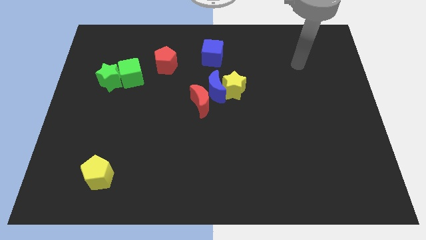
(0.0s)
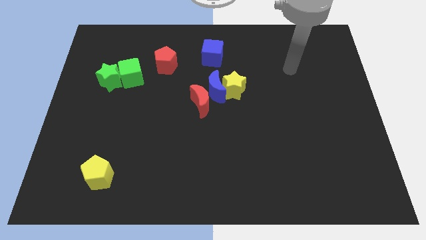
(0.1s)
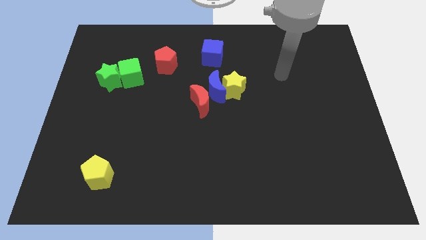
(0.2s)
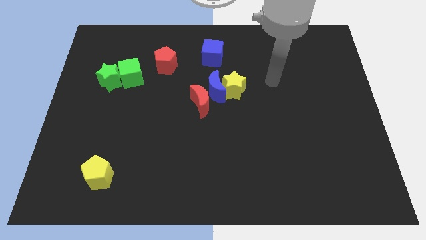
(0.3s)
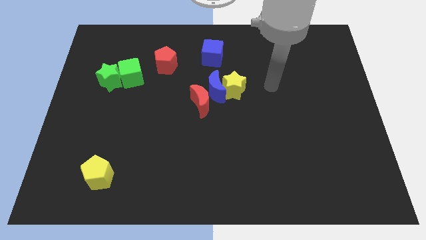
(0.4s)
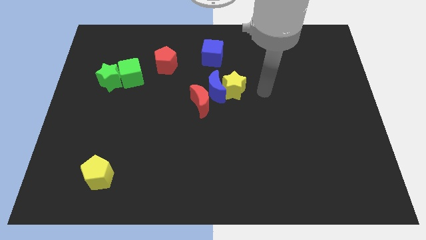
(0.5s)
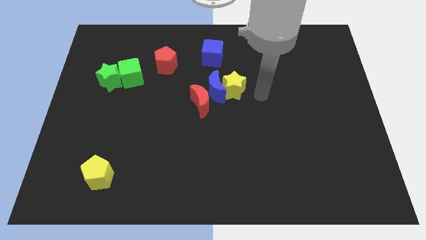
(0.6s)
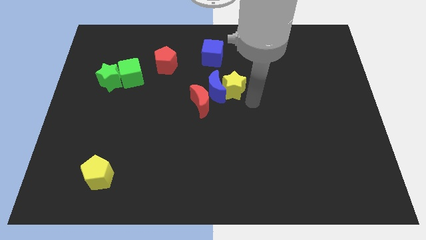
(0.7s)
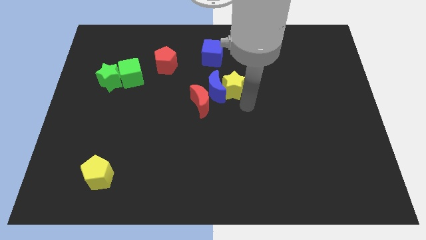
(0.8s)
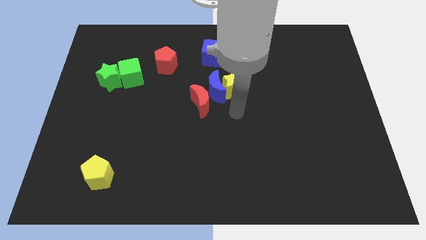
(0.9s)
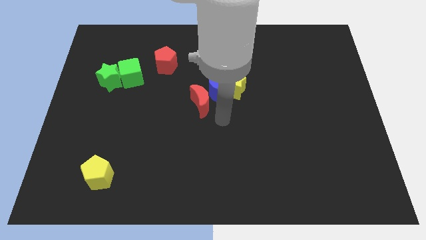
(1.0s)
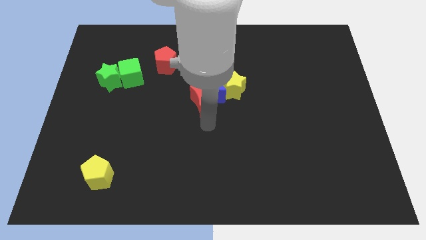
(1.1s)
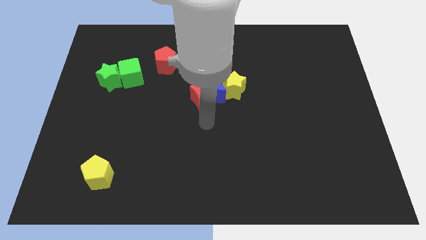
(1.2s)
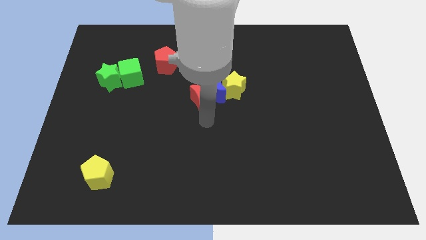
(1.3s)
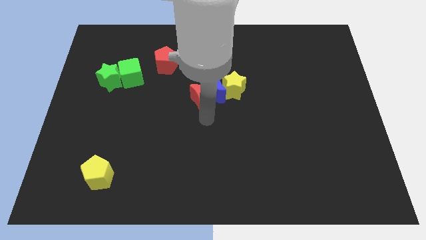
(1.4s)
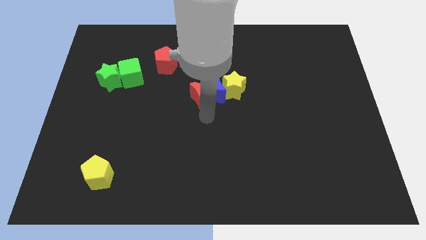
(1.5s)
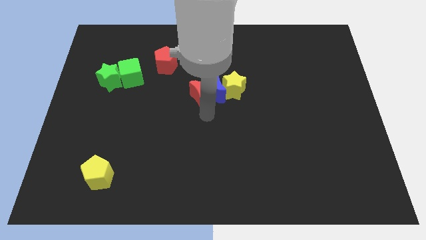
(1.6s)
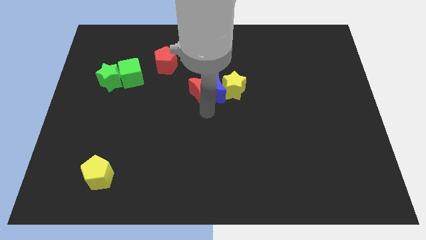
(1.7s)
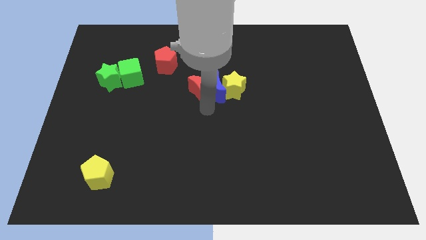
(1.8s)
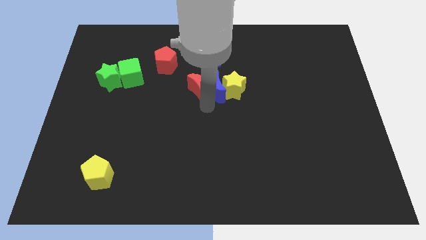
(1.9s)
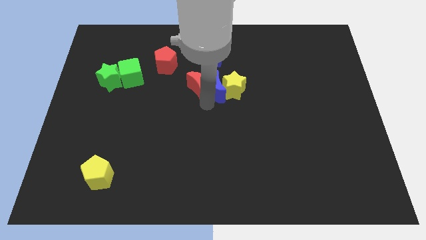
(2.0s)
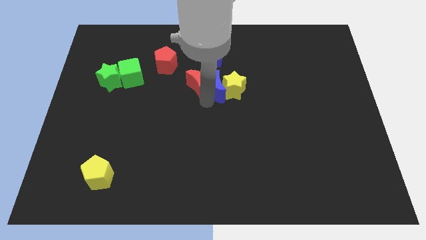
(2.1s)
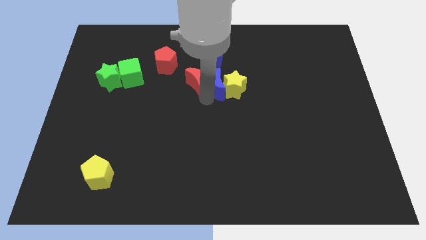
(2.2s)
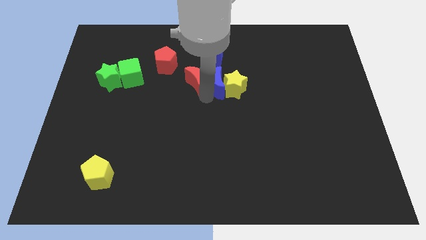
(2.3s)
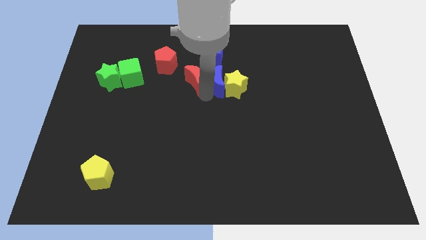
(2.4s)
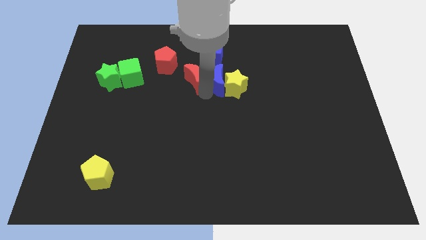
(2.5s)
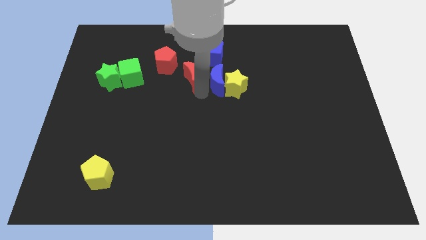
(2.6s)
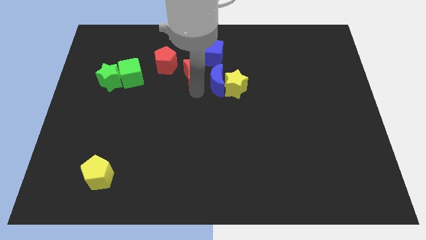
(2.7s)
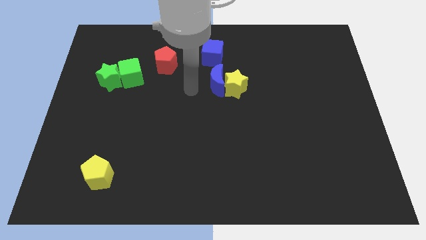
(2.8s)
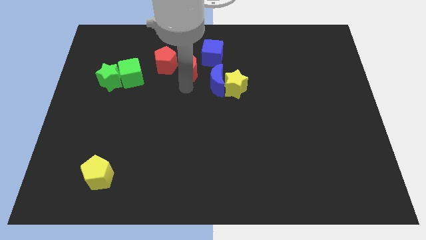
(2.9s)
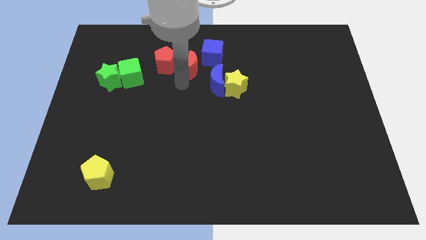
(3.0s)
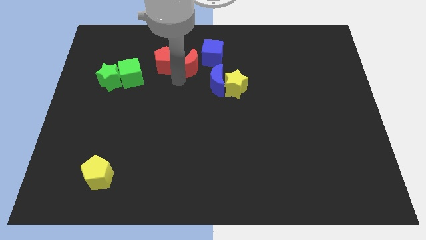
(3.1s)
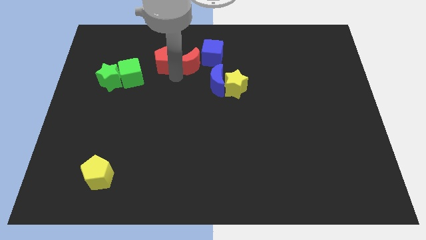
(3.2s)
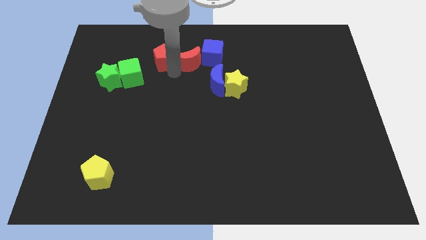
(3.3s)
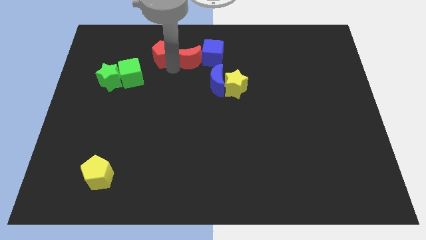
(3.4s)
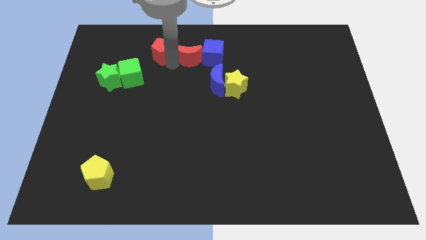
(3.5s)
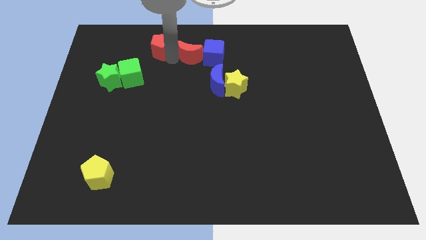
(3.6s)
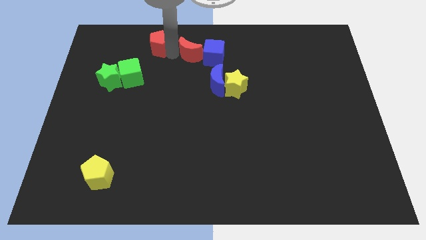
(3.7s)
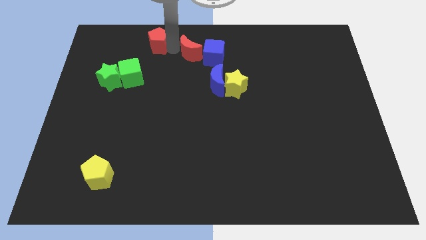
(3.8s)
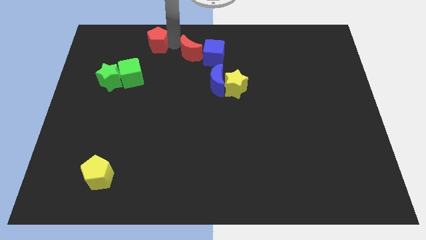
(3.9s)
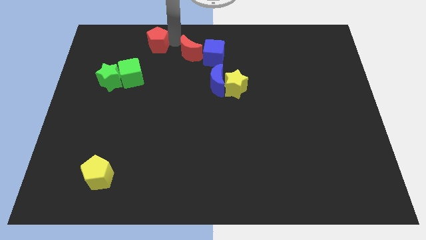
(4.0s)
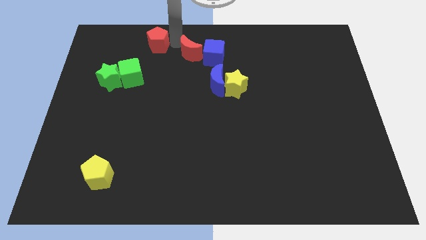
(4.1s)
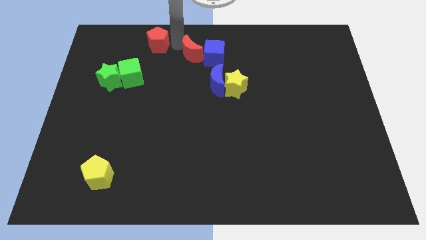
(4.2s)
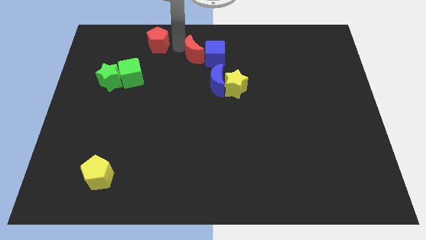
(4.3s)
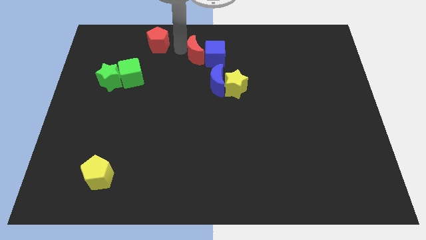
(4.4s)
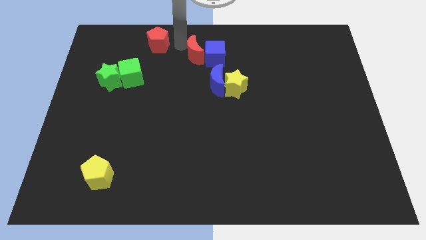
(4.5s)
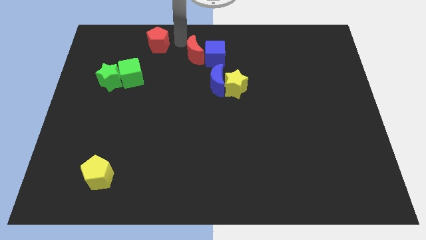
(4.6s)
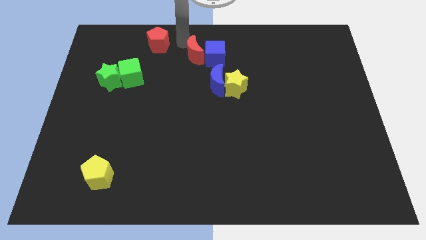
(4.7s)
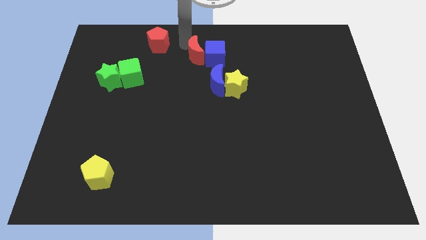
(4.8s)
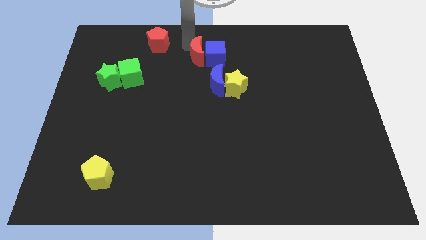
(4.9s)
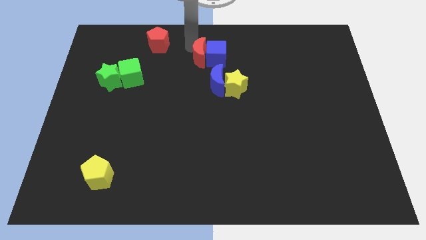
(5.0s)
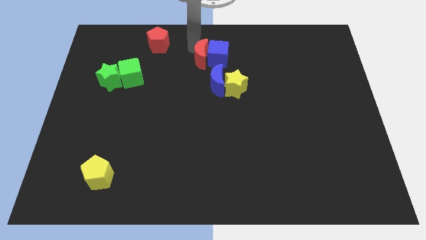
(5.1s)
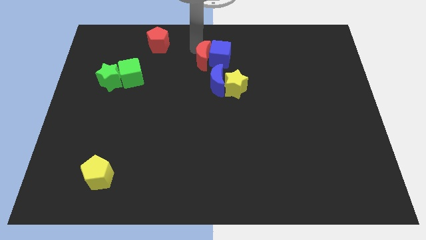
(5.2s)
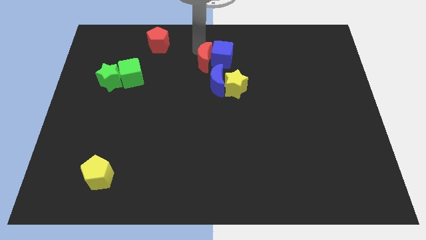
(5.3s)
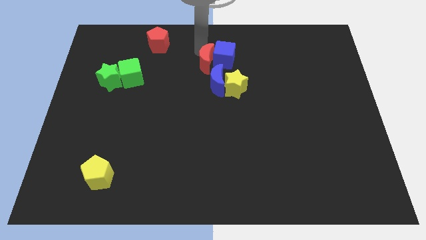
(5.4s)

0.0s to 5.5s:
slightly push the red moon upwards and then right

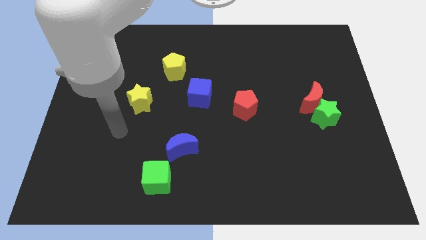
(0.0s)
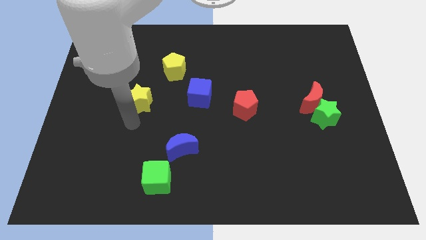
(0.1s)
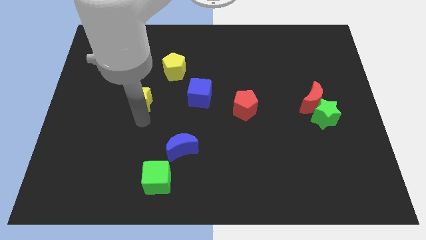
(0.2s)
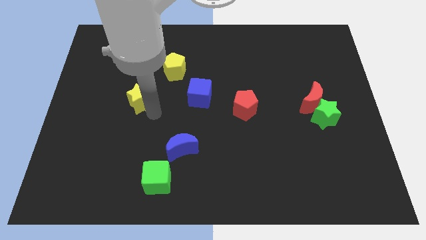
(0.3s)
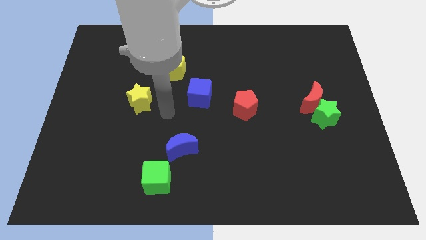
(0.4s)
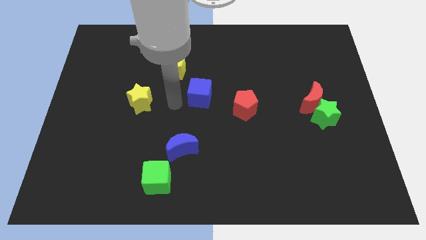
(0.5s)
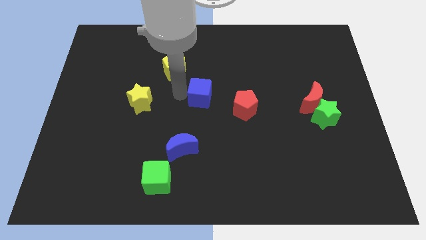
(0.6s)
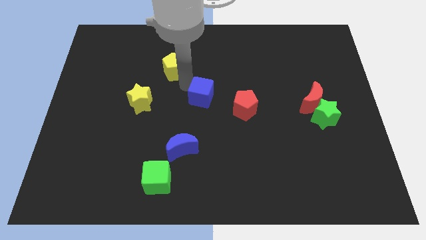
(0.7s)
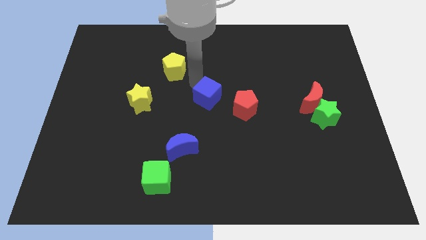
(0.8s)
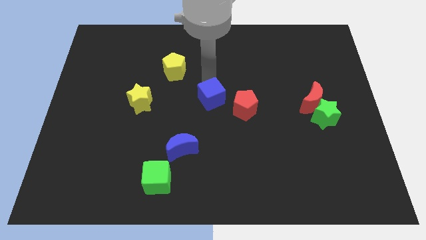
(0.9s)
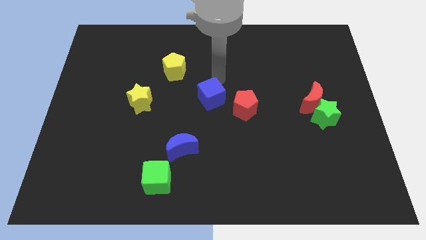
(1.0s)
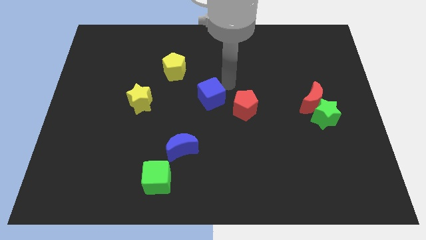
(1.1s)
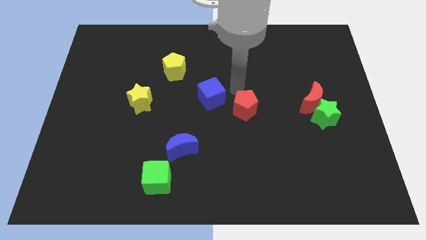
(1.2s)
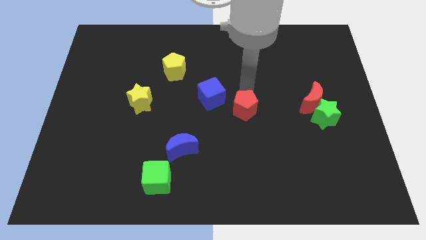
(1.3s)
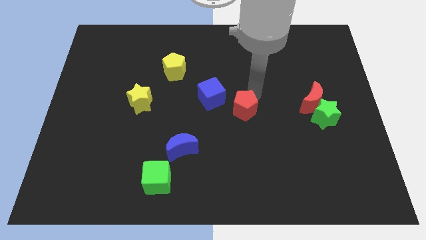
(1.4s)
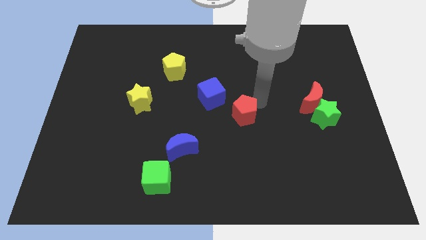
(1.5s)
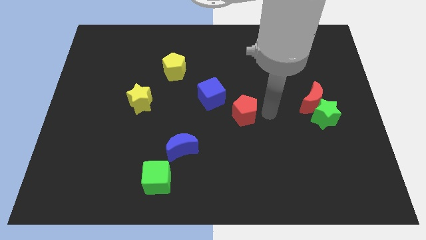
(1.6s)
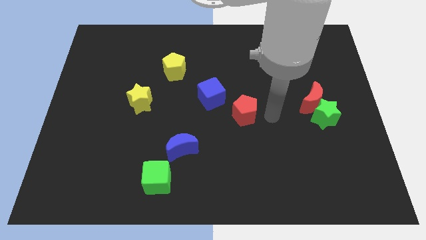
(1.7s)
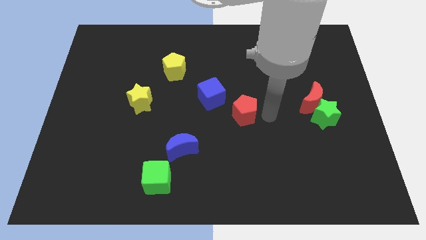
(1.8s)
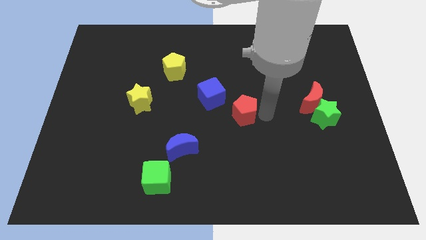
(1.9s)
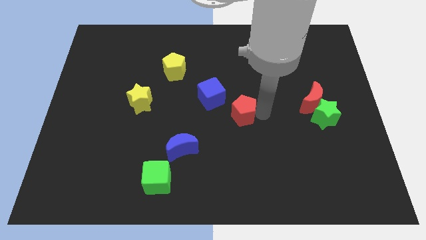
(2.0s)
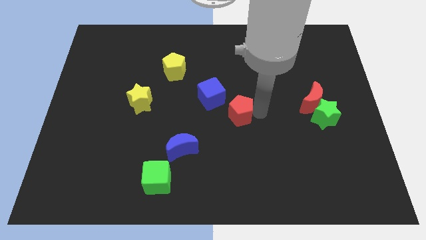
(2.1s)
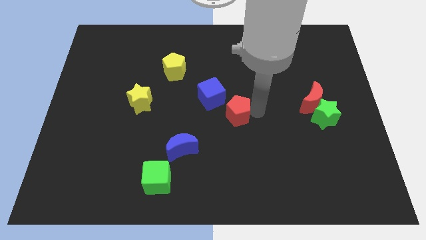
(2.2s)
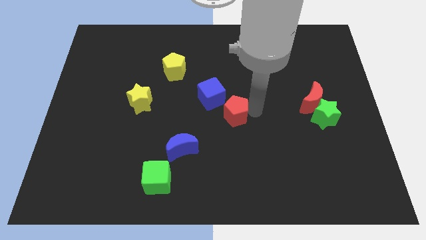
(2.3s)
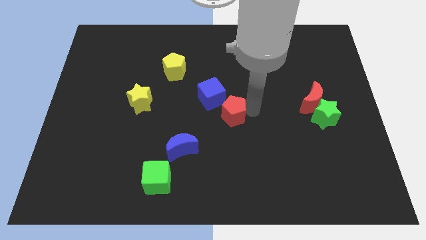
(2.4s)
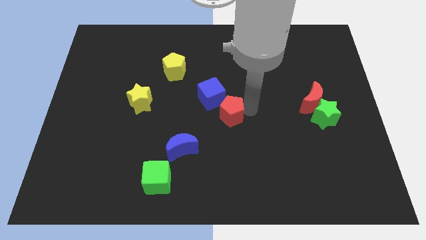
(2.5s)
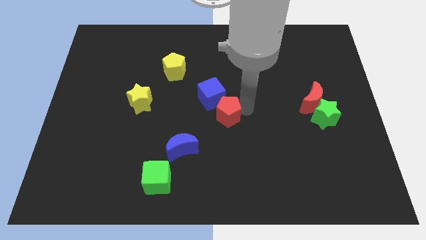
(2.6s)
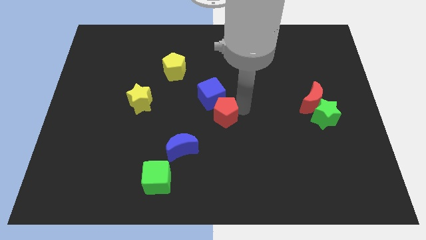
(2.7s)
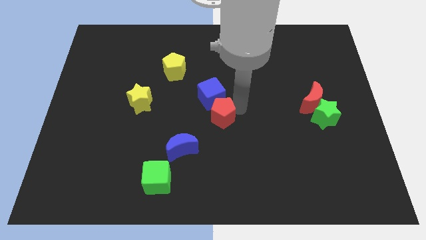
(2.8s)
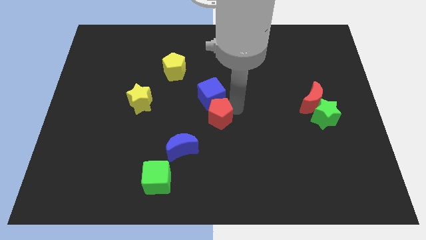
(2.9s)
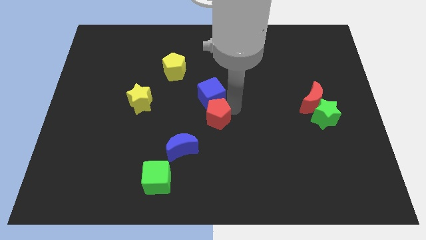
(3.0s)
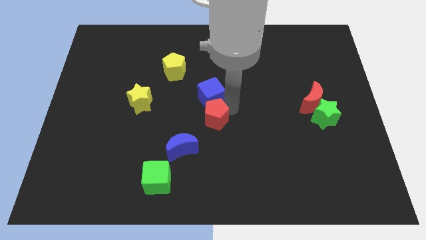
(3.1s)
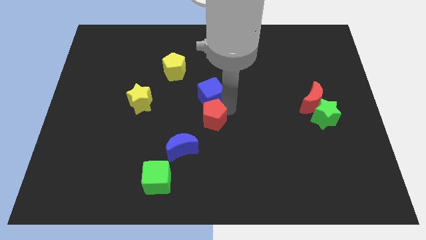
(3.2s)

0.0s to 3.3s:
slide the red pentagon a bit to the left
